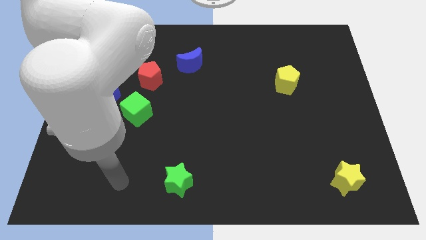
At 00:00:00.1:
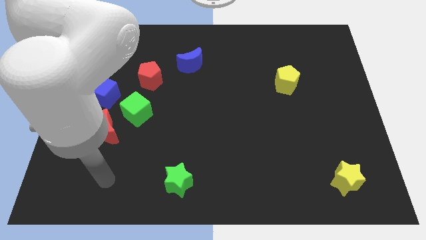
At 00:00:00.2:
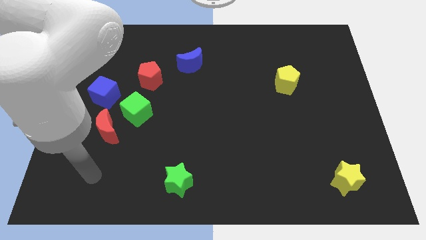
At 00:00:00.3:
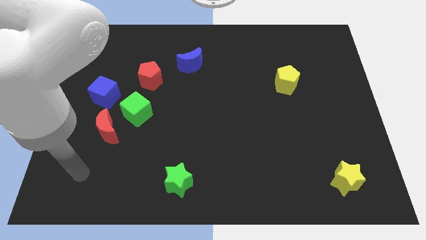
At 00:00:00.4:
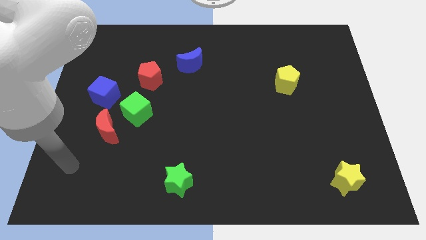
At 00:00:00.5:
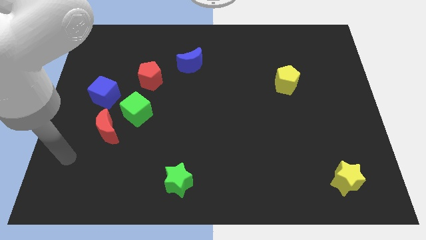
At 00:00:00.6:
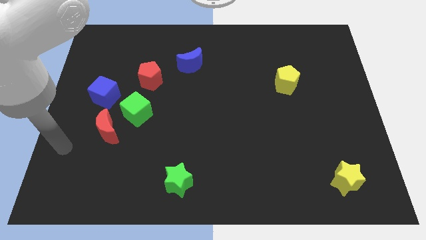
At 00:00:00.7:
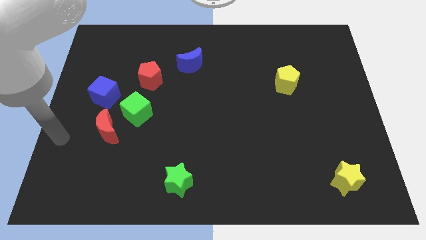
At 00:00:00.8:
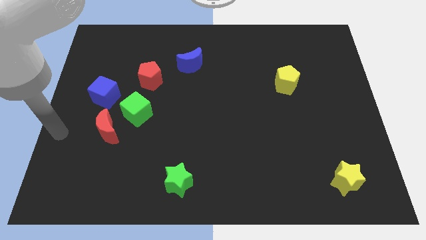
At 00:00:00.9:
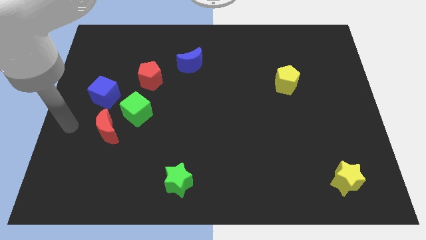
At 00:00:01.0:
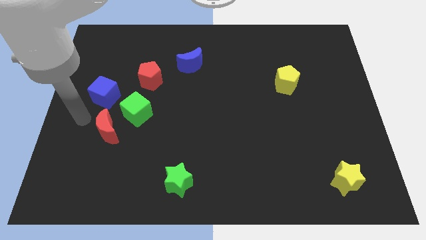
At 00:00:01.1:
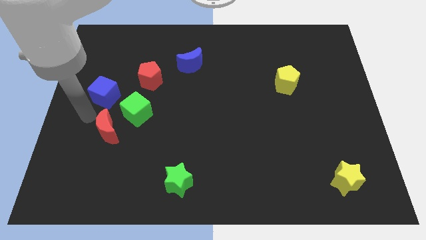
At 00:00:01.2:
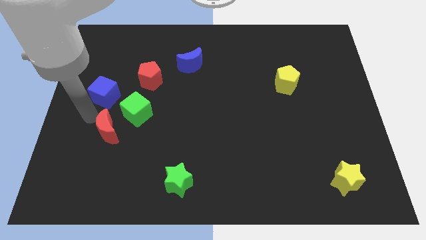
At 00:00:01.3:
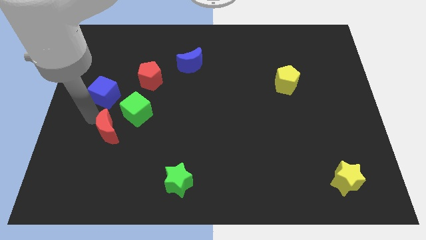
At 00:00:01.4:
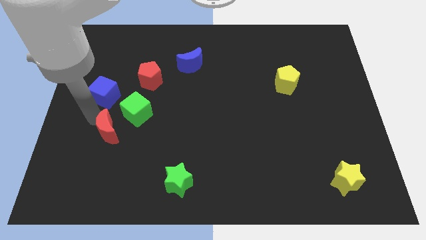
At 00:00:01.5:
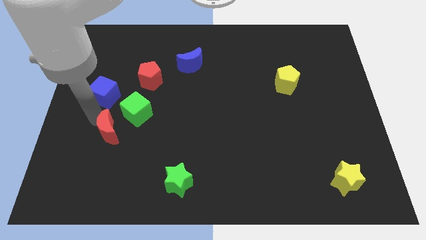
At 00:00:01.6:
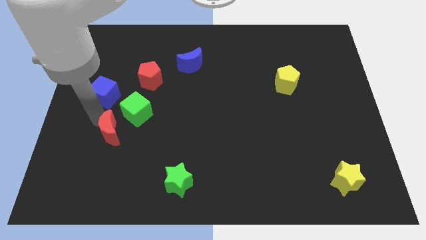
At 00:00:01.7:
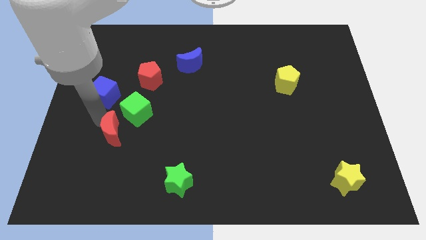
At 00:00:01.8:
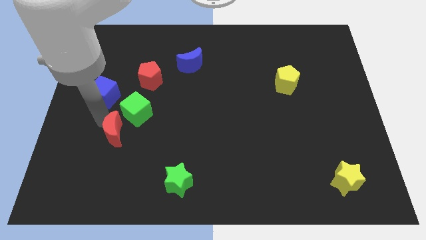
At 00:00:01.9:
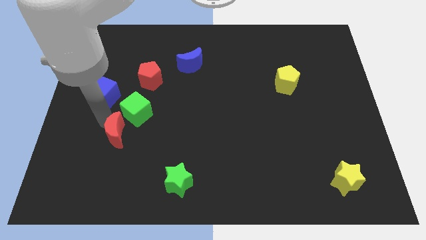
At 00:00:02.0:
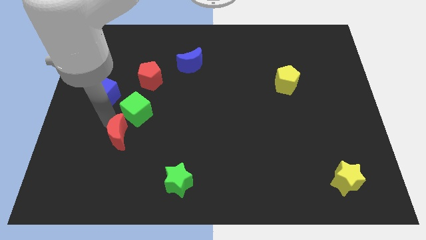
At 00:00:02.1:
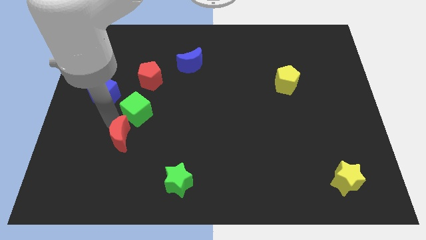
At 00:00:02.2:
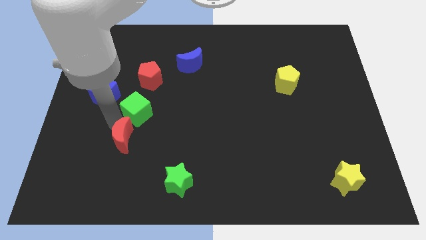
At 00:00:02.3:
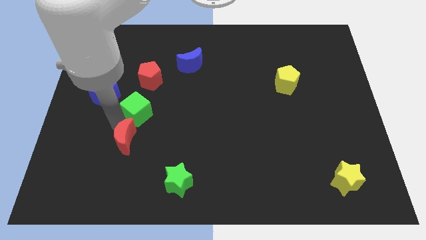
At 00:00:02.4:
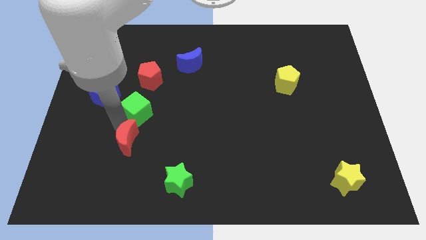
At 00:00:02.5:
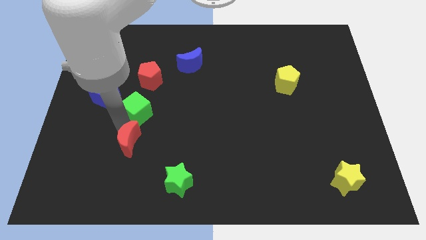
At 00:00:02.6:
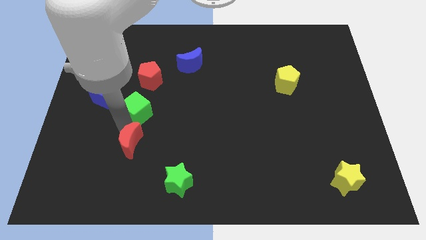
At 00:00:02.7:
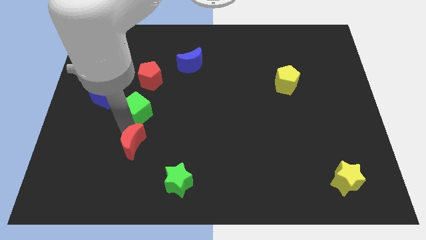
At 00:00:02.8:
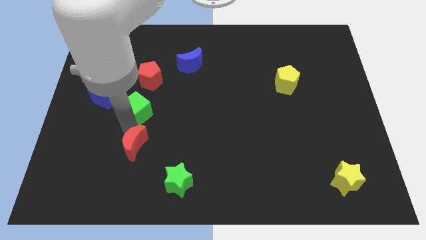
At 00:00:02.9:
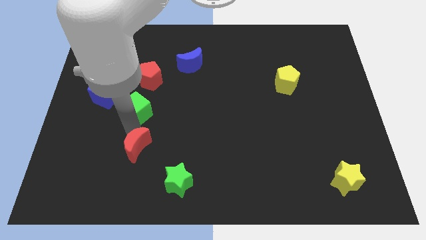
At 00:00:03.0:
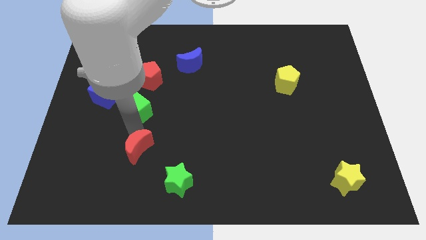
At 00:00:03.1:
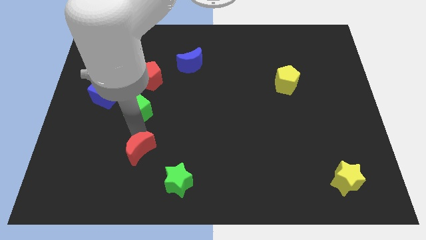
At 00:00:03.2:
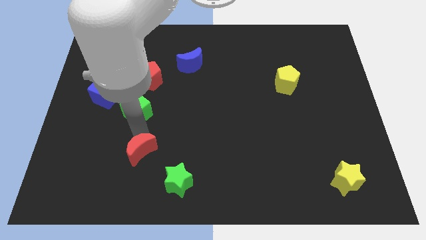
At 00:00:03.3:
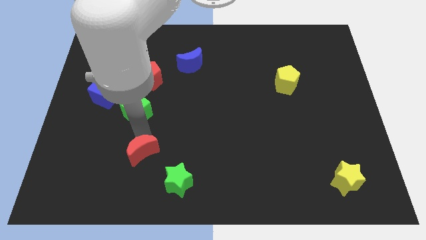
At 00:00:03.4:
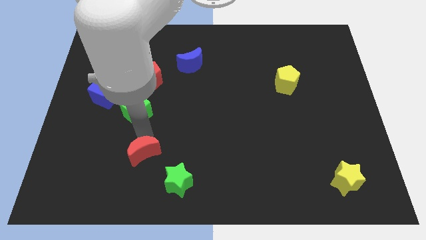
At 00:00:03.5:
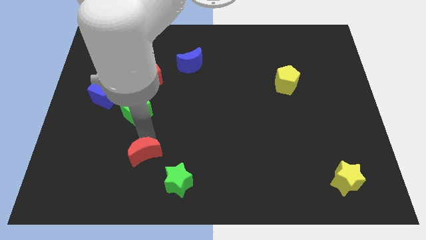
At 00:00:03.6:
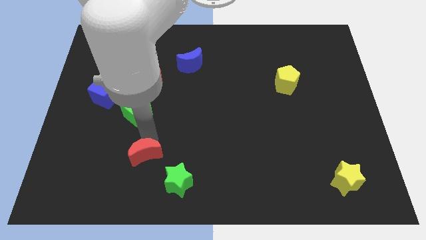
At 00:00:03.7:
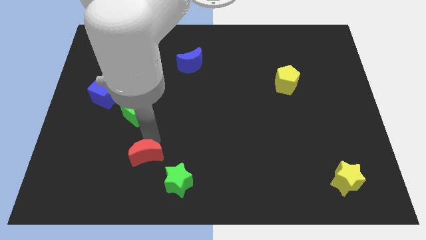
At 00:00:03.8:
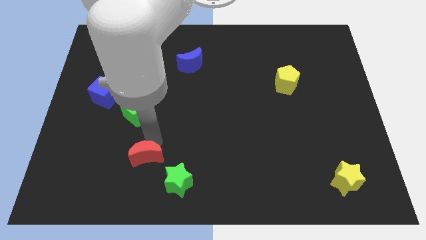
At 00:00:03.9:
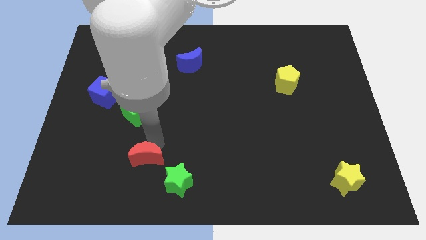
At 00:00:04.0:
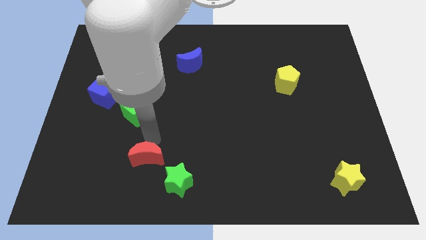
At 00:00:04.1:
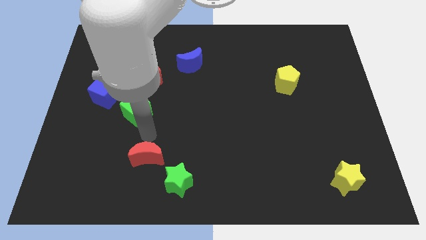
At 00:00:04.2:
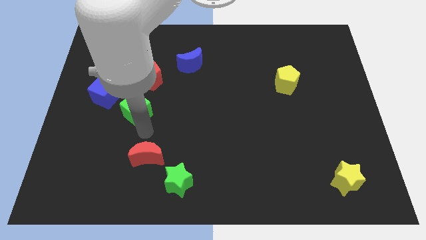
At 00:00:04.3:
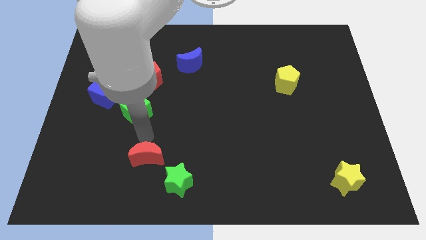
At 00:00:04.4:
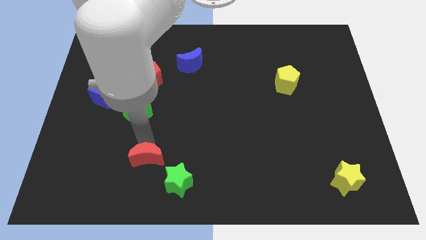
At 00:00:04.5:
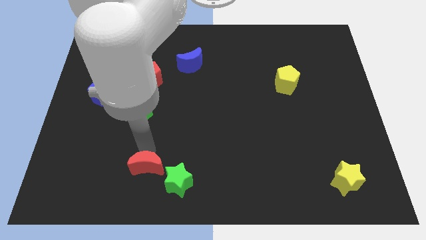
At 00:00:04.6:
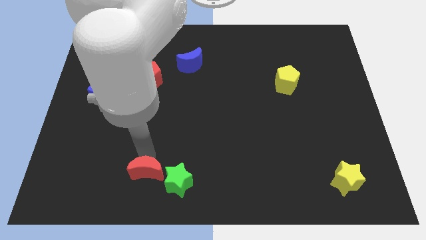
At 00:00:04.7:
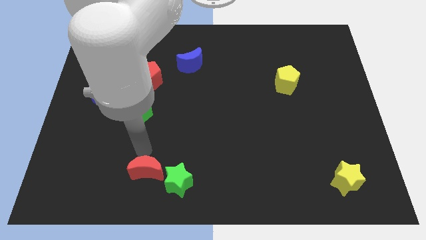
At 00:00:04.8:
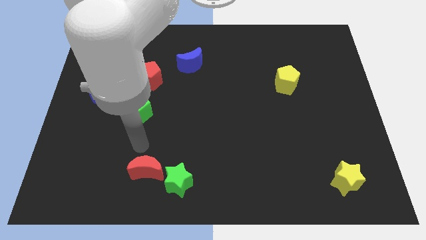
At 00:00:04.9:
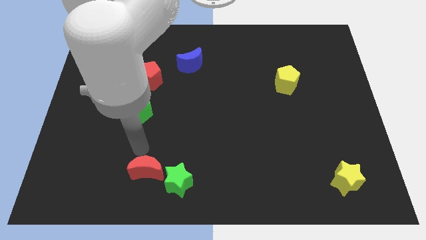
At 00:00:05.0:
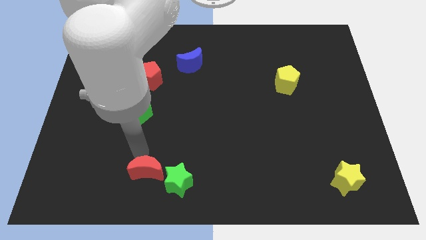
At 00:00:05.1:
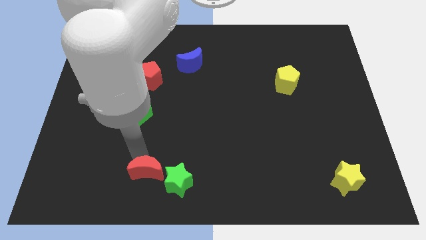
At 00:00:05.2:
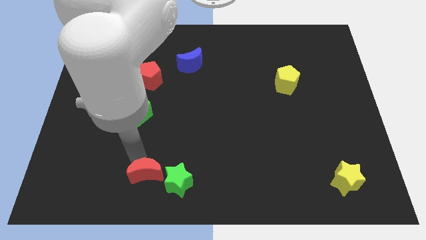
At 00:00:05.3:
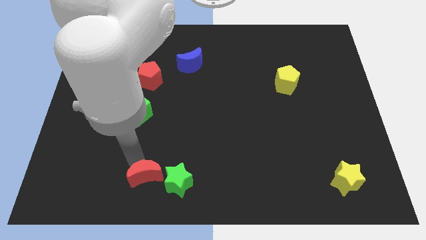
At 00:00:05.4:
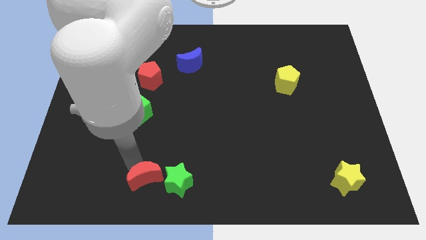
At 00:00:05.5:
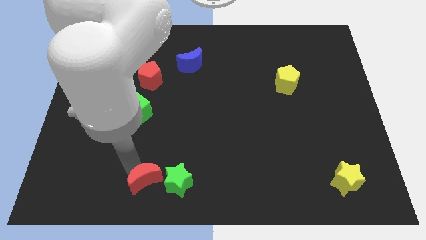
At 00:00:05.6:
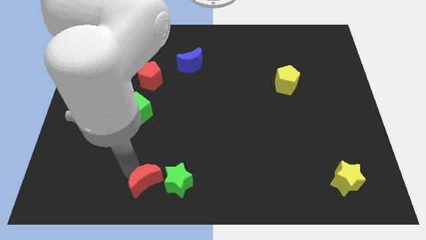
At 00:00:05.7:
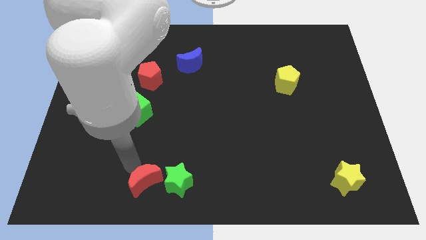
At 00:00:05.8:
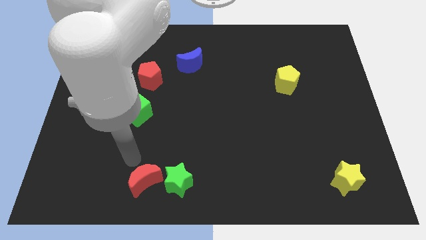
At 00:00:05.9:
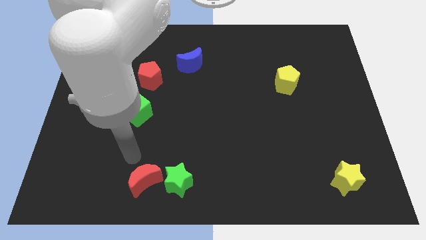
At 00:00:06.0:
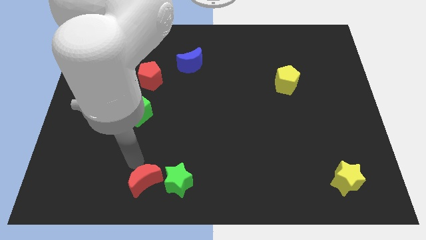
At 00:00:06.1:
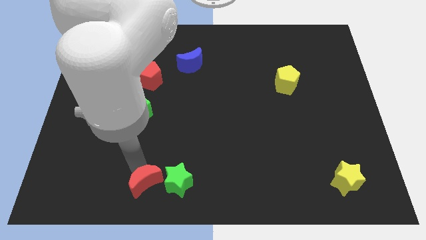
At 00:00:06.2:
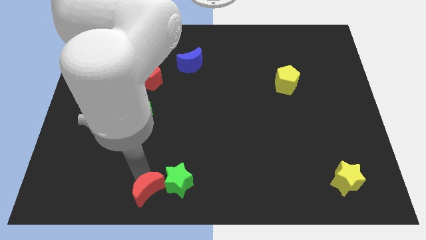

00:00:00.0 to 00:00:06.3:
slide the red moon to the bottom
